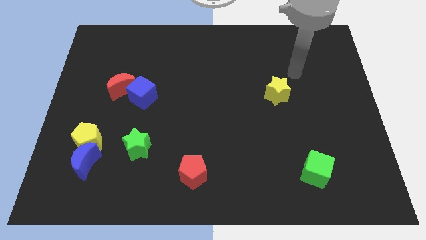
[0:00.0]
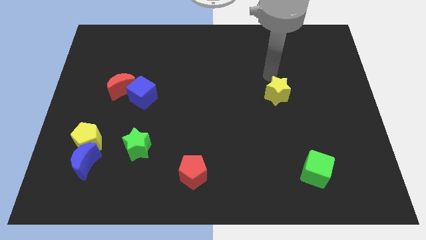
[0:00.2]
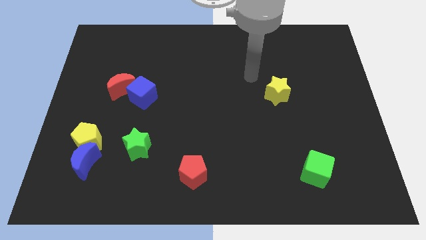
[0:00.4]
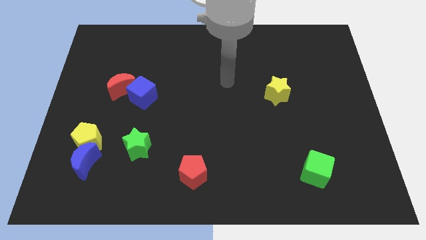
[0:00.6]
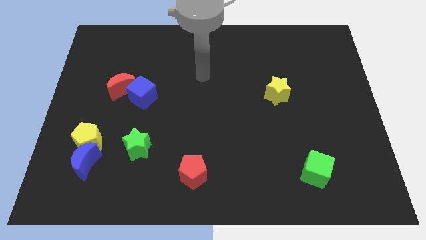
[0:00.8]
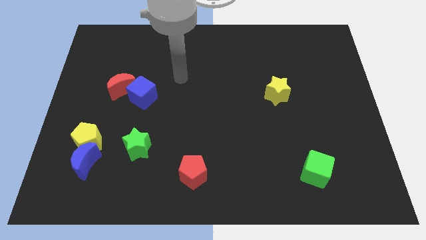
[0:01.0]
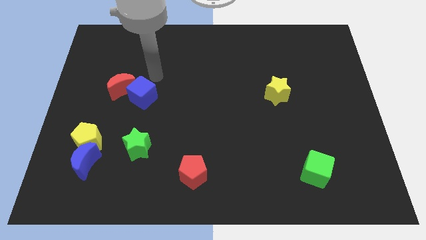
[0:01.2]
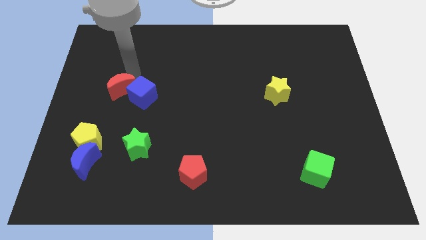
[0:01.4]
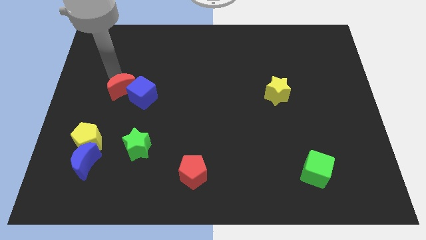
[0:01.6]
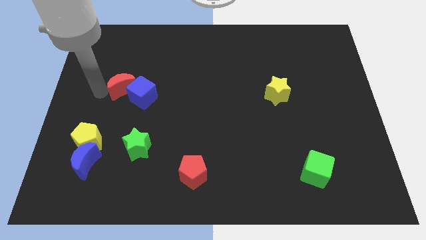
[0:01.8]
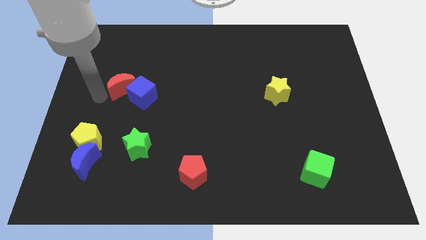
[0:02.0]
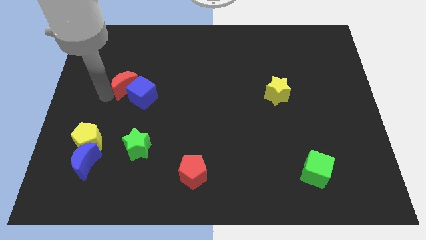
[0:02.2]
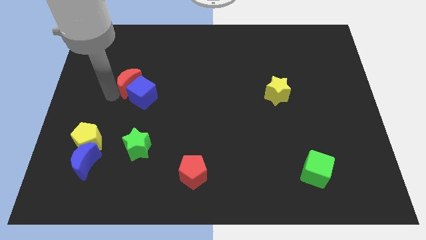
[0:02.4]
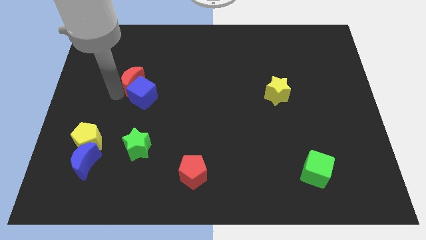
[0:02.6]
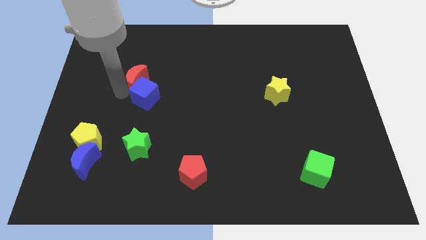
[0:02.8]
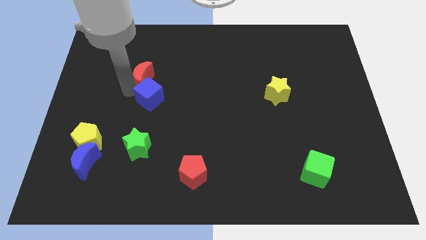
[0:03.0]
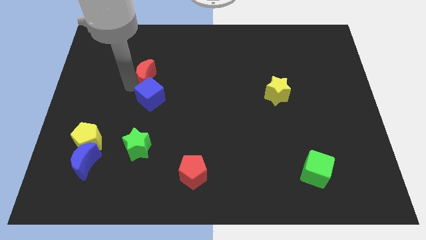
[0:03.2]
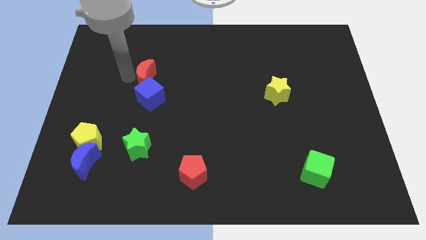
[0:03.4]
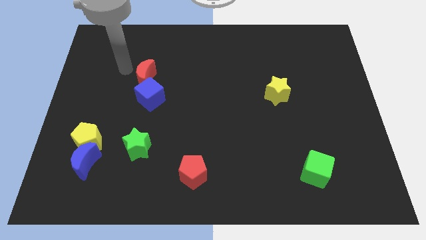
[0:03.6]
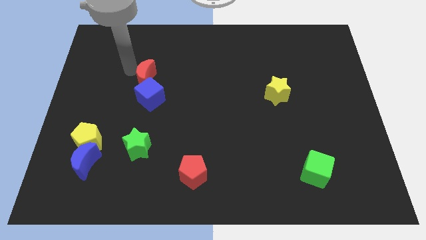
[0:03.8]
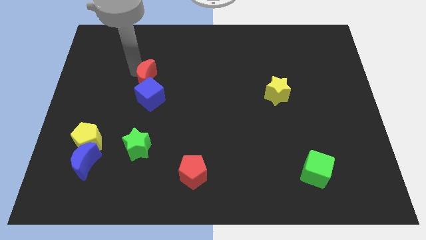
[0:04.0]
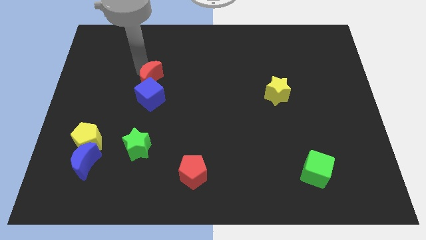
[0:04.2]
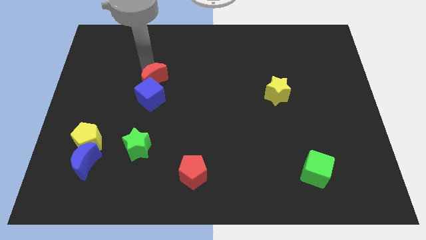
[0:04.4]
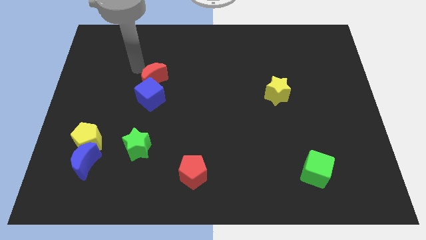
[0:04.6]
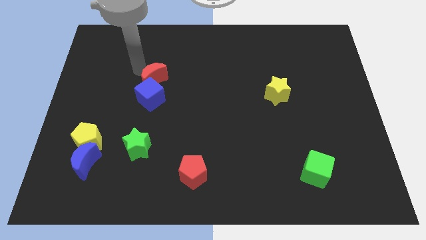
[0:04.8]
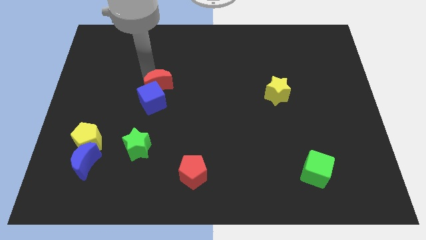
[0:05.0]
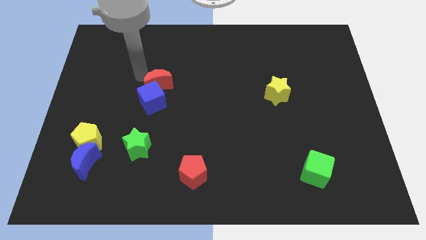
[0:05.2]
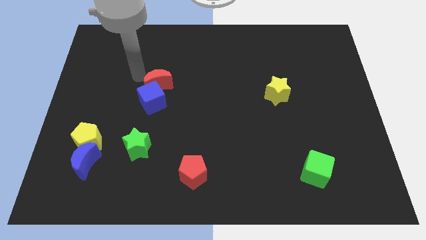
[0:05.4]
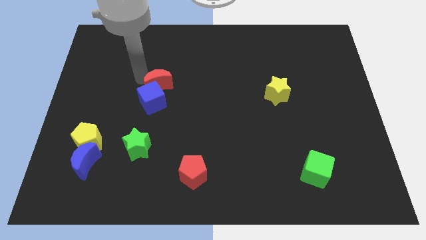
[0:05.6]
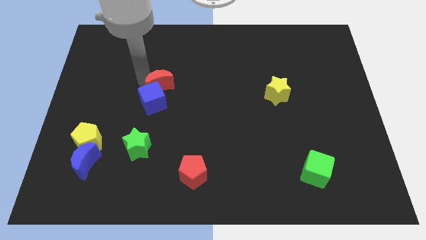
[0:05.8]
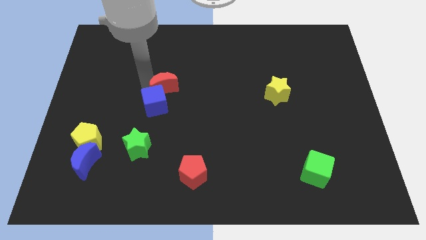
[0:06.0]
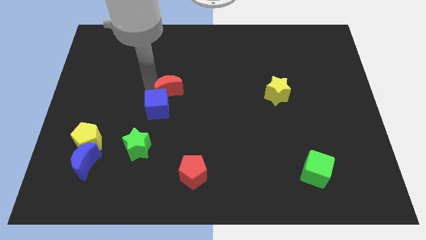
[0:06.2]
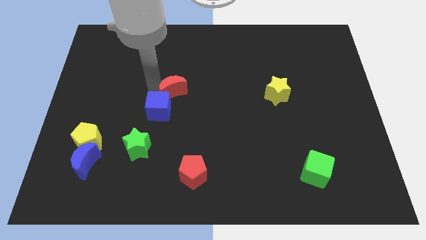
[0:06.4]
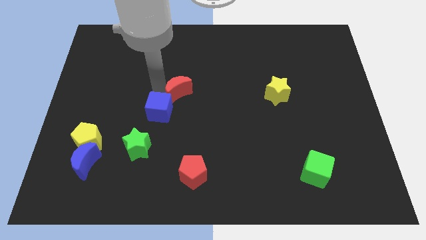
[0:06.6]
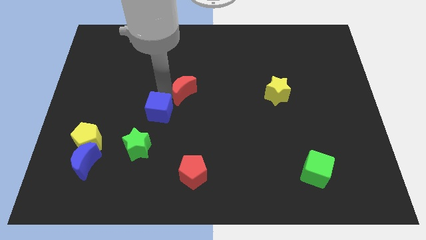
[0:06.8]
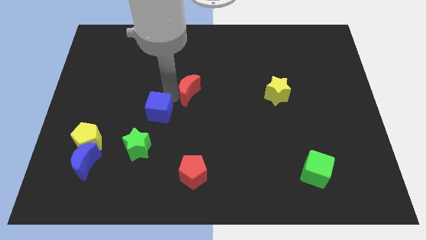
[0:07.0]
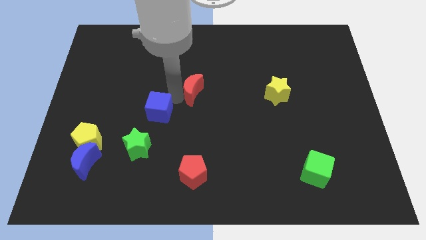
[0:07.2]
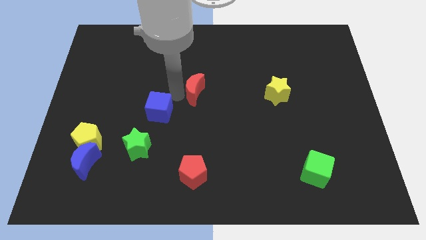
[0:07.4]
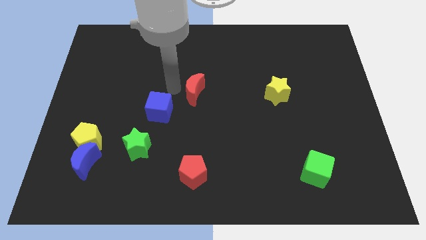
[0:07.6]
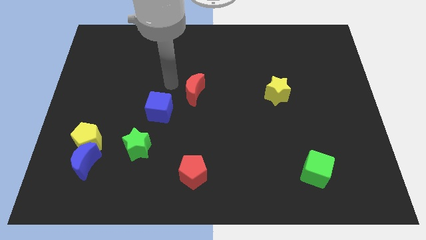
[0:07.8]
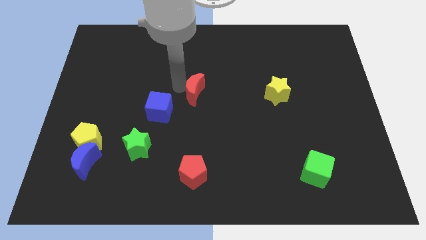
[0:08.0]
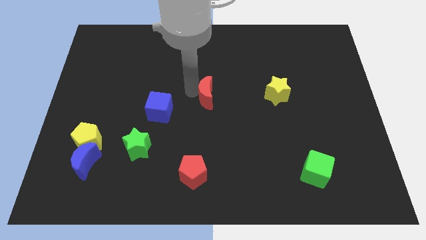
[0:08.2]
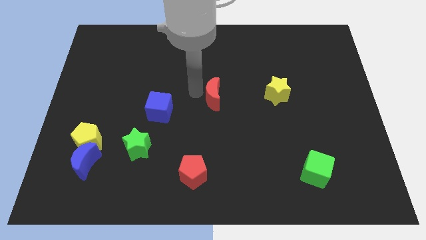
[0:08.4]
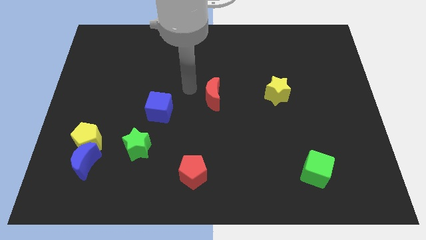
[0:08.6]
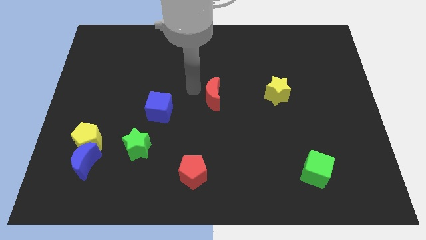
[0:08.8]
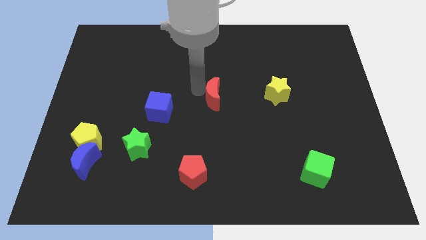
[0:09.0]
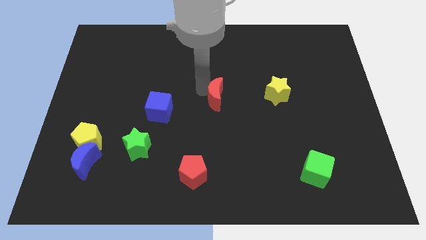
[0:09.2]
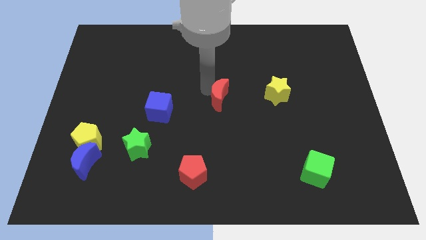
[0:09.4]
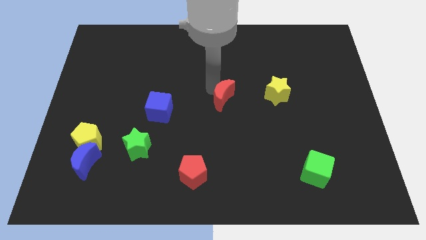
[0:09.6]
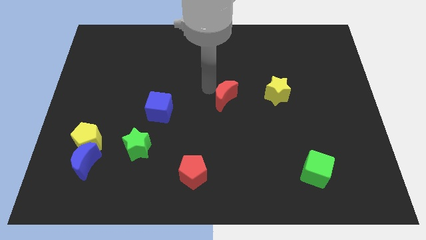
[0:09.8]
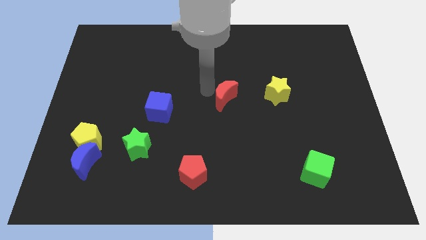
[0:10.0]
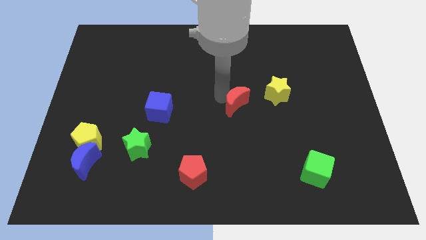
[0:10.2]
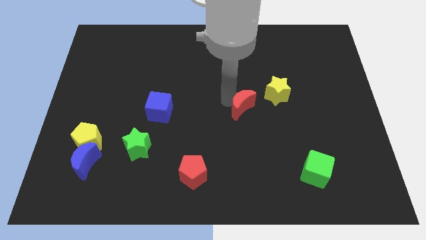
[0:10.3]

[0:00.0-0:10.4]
push the red moon diagonally down and to the left of the yellow star

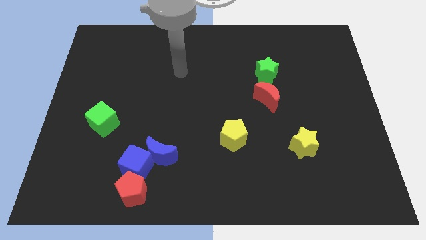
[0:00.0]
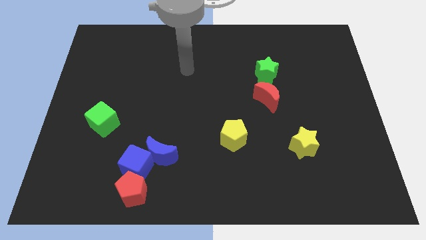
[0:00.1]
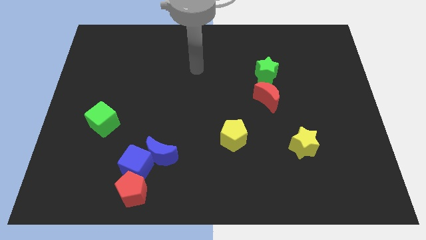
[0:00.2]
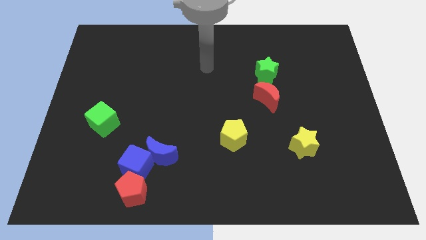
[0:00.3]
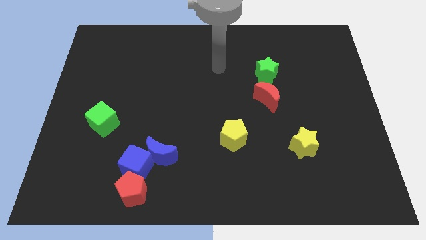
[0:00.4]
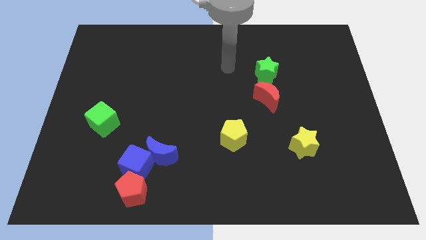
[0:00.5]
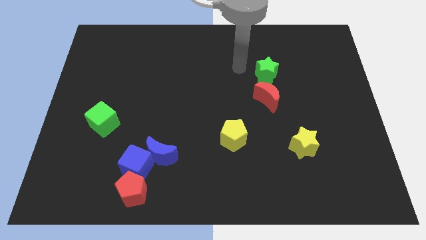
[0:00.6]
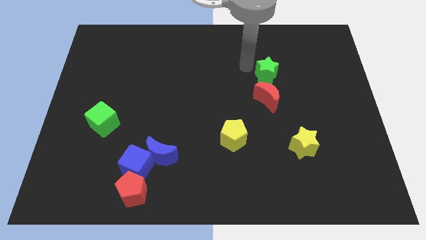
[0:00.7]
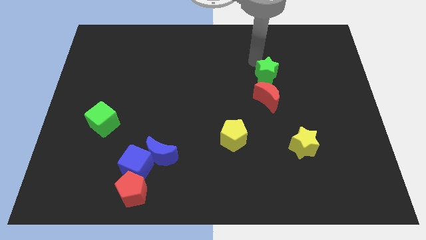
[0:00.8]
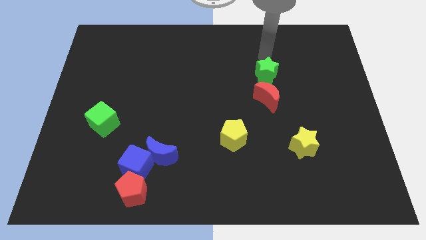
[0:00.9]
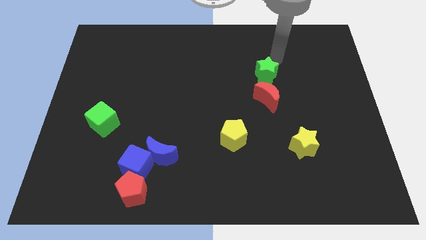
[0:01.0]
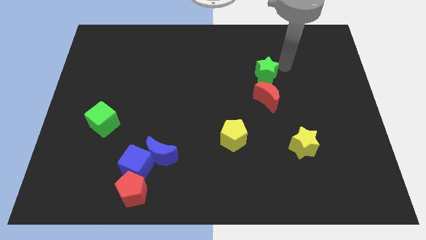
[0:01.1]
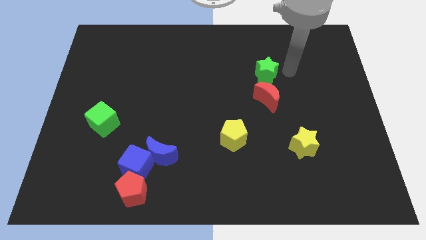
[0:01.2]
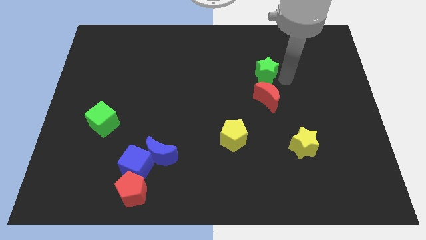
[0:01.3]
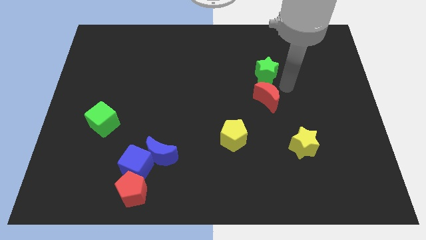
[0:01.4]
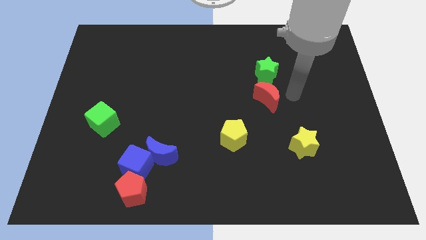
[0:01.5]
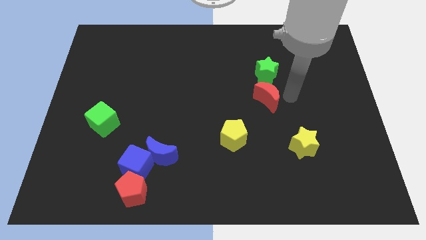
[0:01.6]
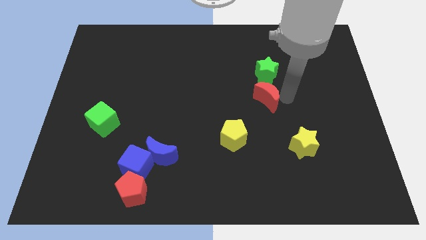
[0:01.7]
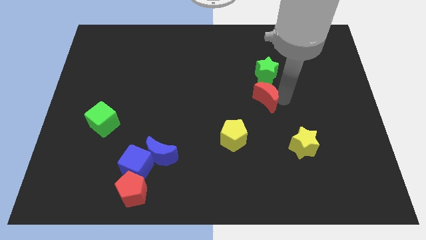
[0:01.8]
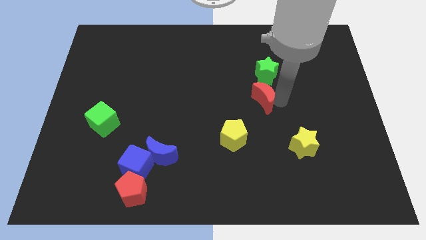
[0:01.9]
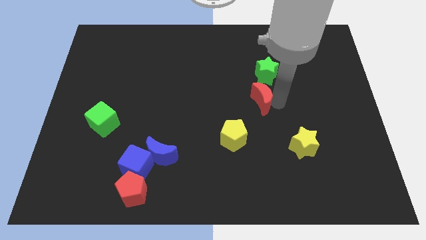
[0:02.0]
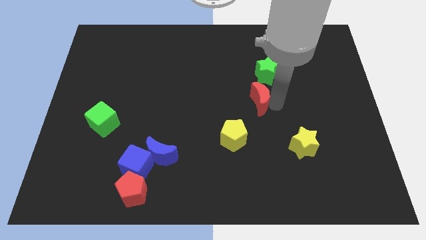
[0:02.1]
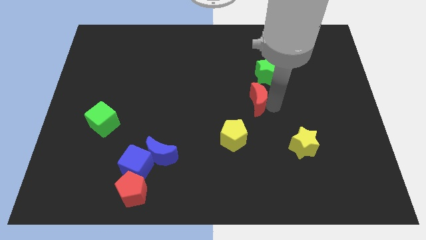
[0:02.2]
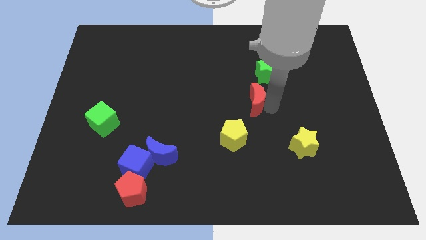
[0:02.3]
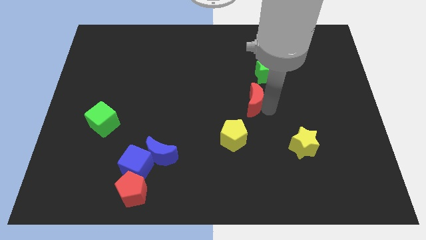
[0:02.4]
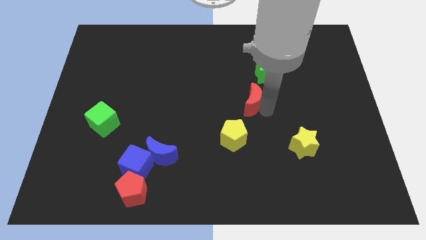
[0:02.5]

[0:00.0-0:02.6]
push the red moon to the top side of the yellow pentagon
